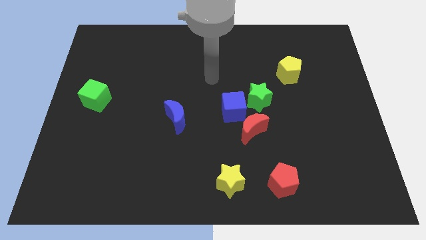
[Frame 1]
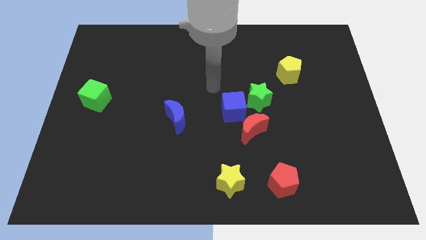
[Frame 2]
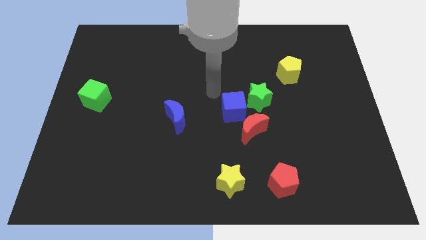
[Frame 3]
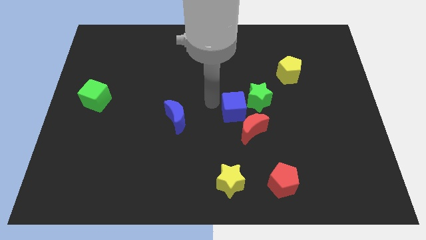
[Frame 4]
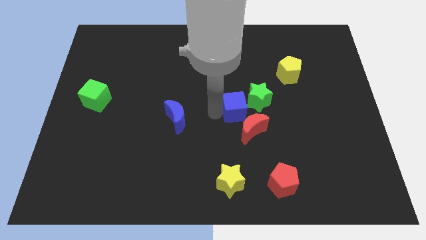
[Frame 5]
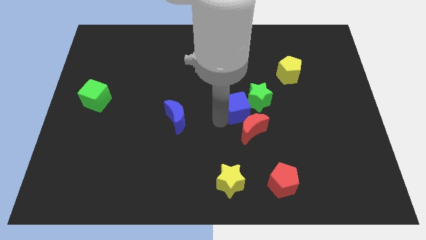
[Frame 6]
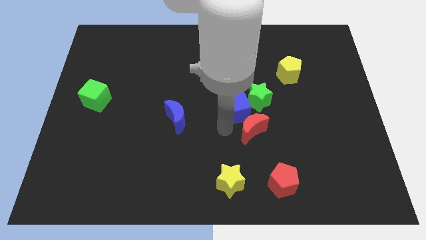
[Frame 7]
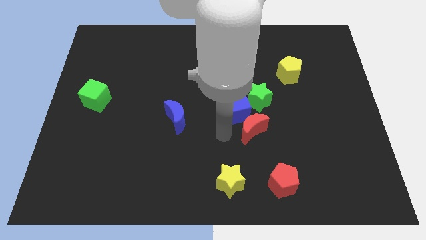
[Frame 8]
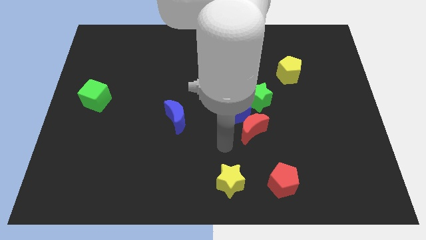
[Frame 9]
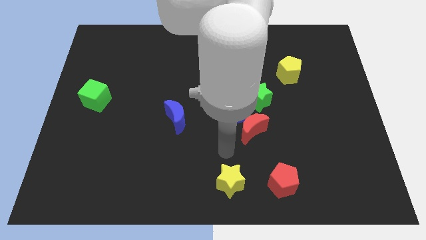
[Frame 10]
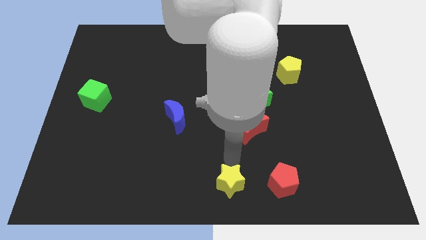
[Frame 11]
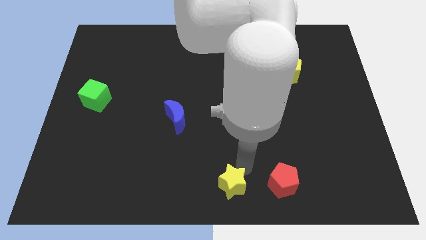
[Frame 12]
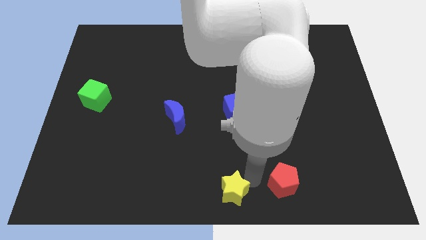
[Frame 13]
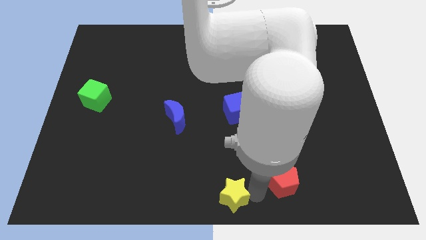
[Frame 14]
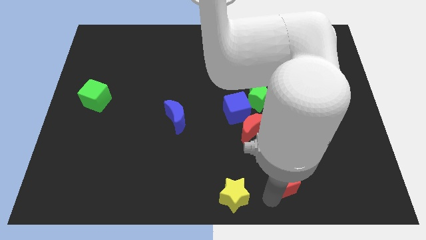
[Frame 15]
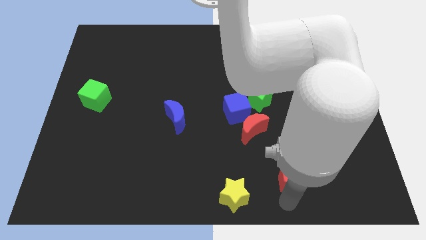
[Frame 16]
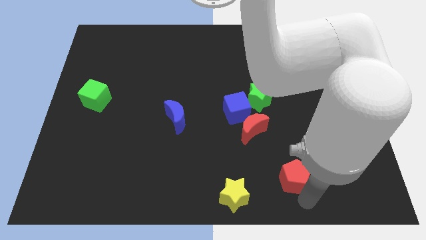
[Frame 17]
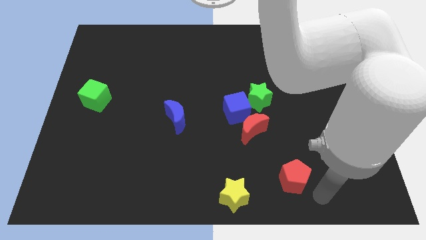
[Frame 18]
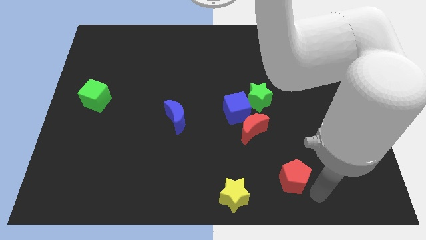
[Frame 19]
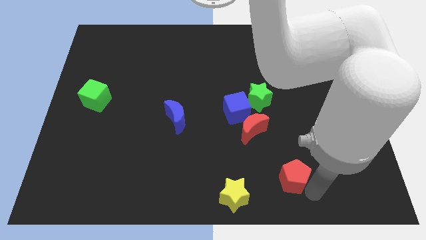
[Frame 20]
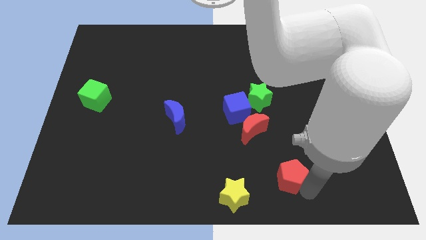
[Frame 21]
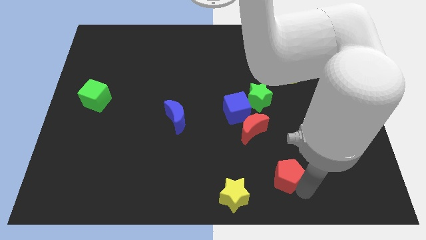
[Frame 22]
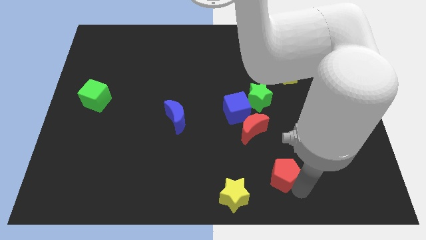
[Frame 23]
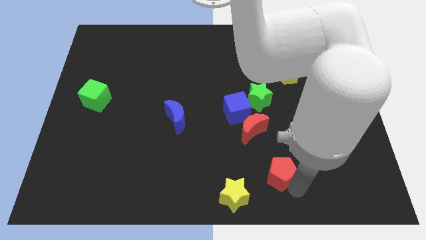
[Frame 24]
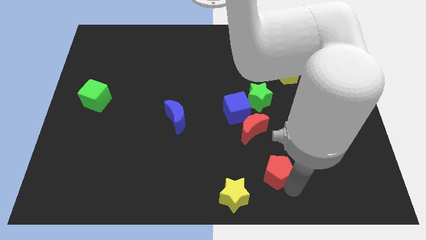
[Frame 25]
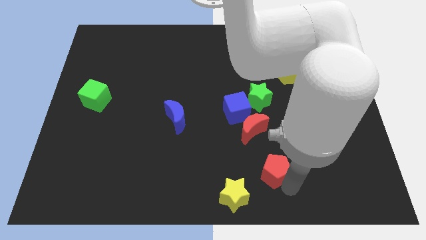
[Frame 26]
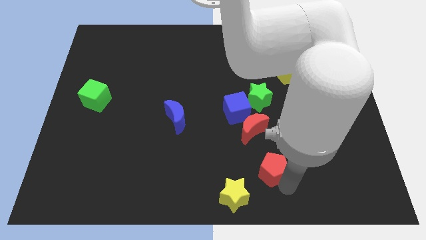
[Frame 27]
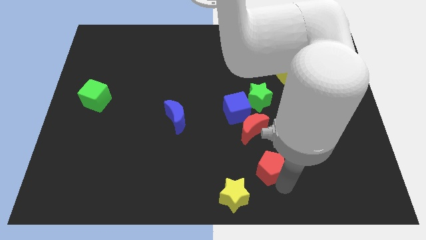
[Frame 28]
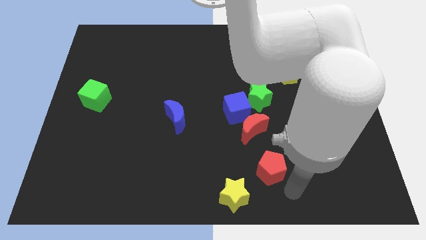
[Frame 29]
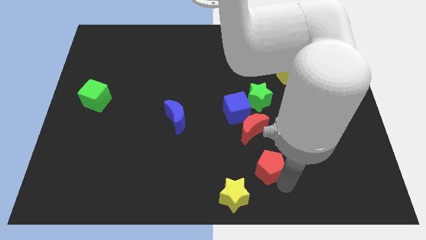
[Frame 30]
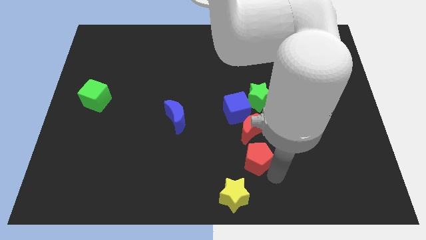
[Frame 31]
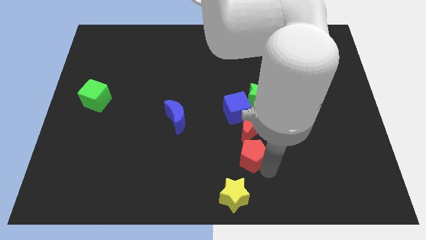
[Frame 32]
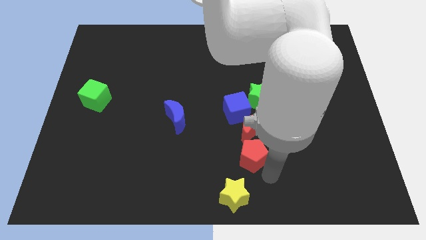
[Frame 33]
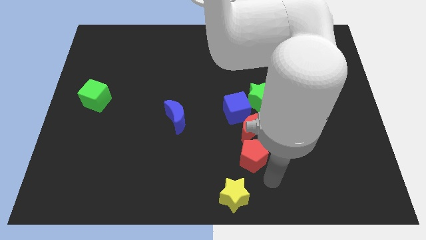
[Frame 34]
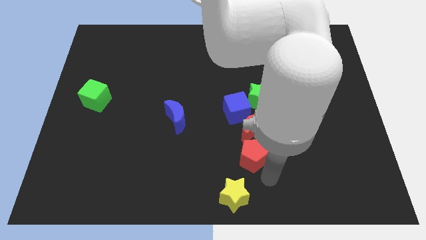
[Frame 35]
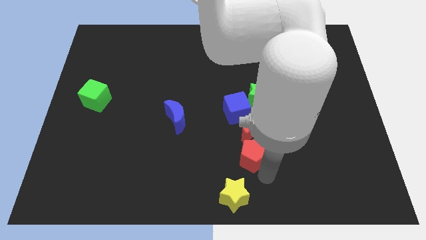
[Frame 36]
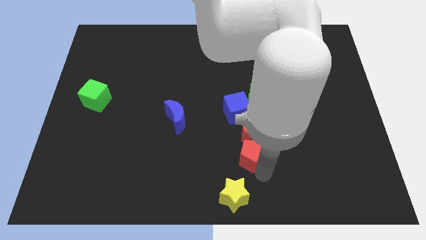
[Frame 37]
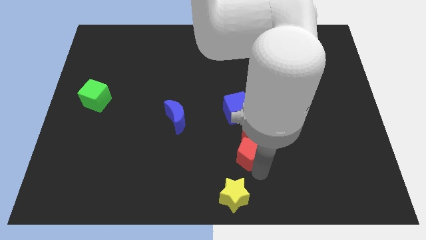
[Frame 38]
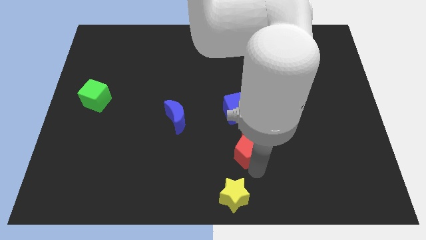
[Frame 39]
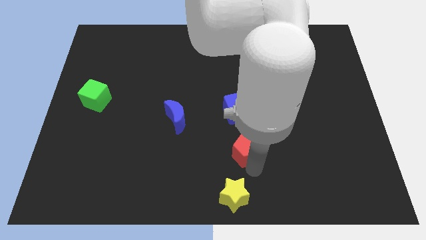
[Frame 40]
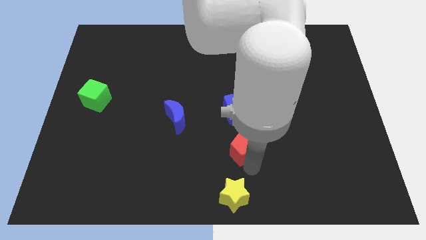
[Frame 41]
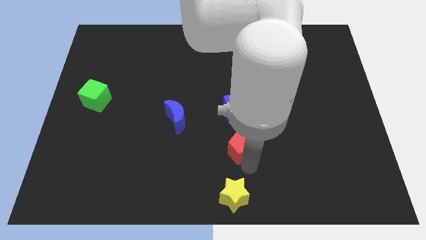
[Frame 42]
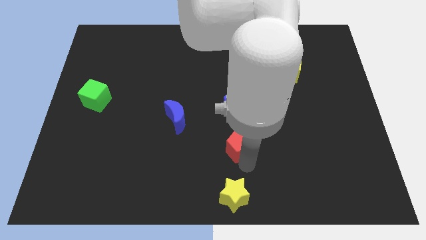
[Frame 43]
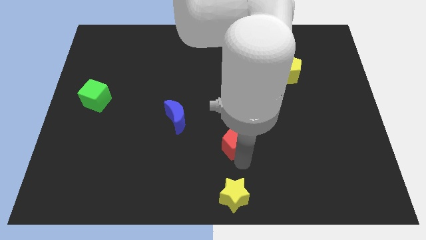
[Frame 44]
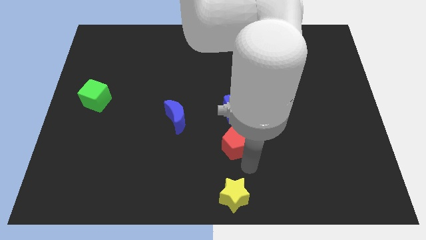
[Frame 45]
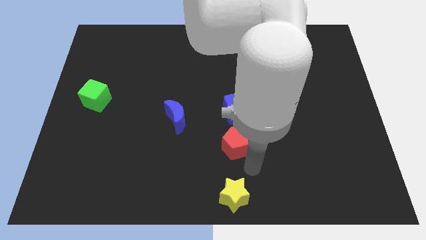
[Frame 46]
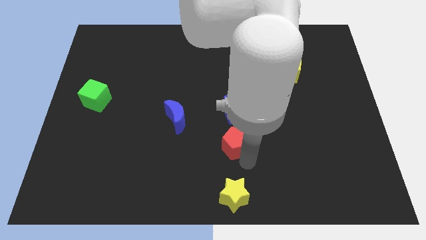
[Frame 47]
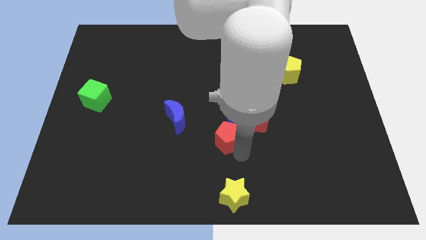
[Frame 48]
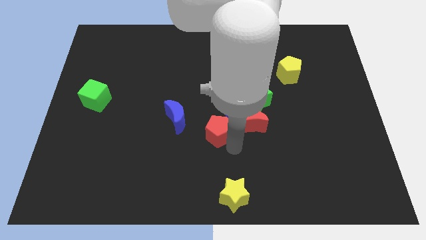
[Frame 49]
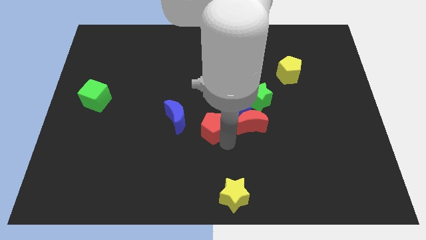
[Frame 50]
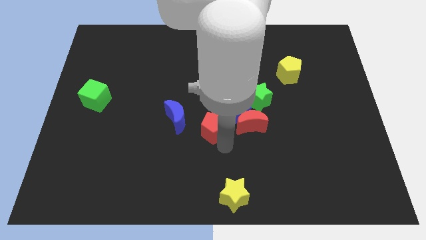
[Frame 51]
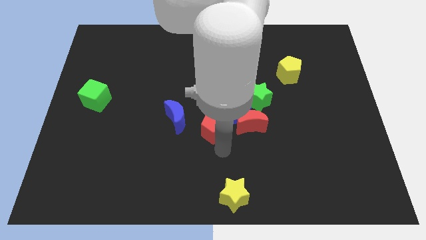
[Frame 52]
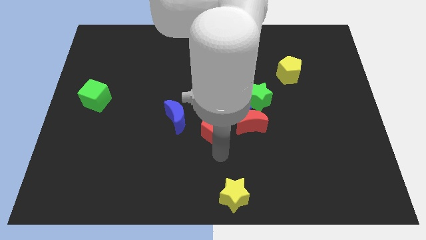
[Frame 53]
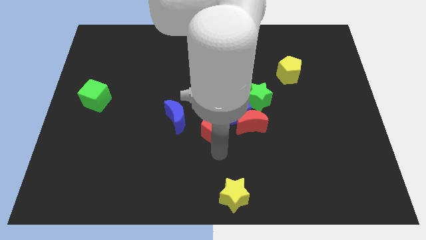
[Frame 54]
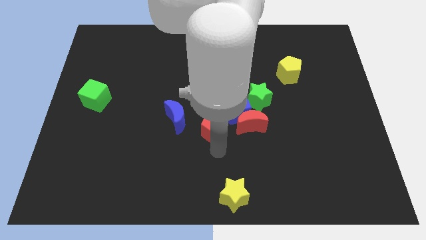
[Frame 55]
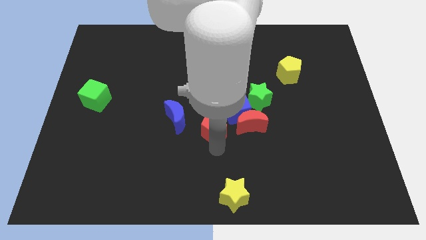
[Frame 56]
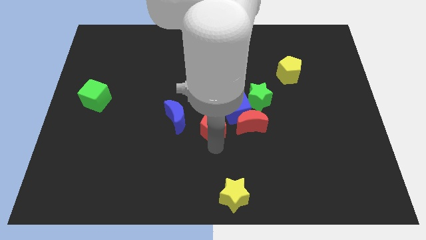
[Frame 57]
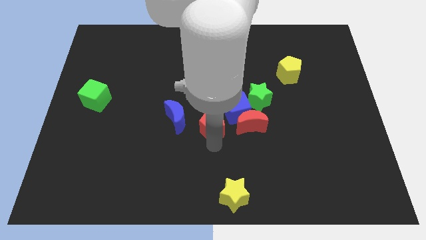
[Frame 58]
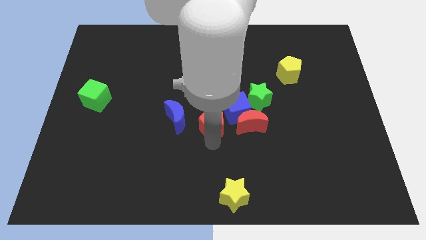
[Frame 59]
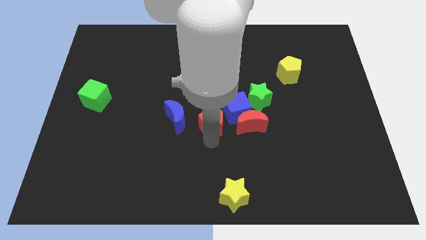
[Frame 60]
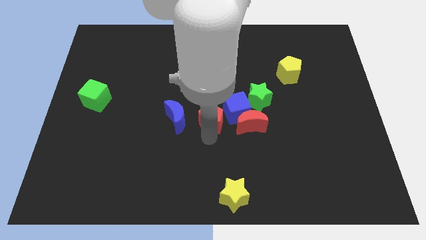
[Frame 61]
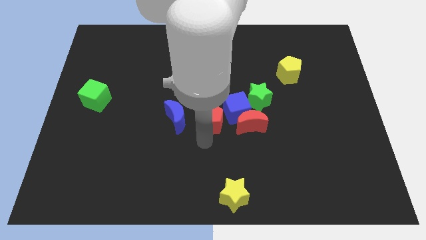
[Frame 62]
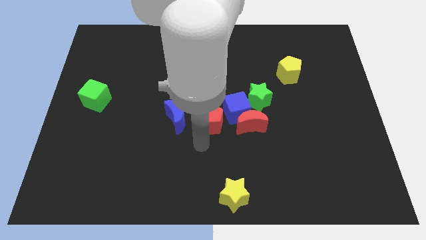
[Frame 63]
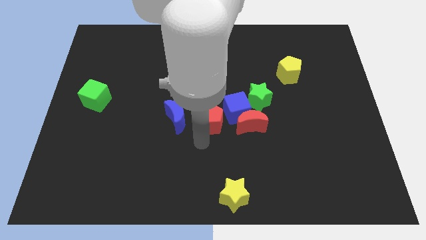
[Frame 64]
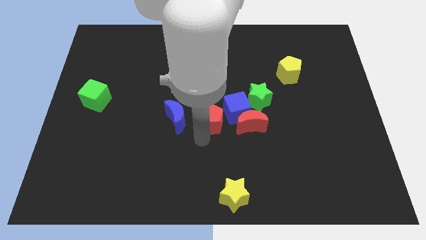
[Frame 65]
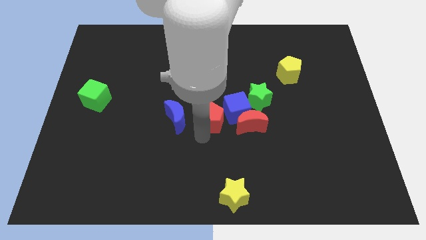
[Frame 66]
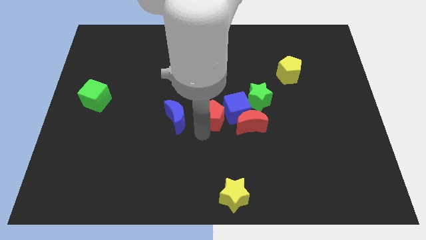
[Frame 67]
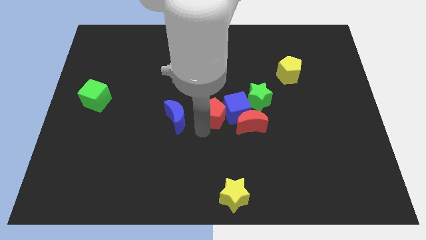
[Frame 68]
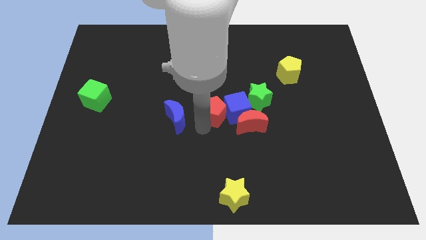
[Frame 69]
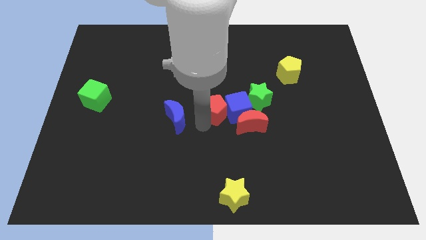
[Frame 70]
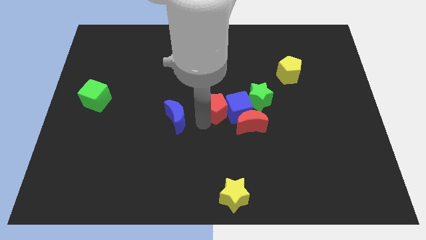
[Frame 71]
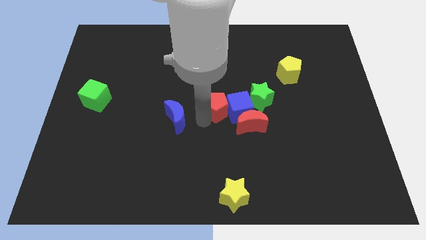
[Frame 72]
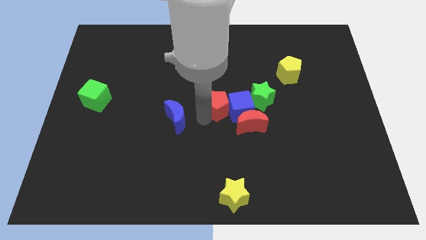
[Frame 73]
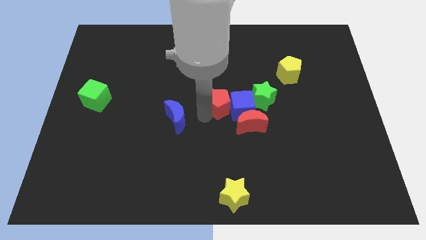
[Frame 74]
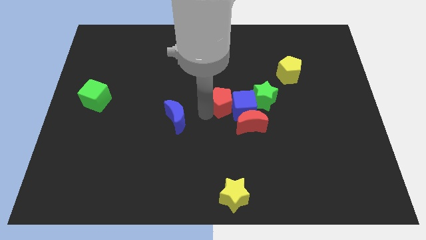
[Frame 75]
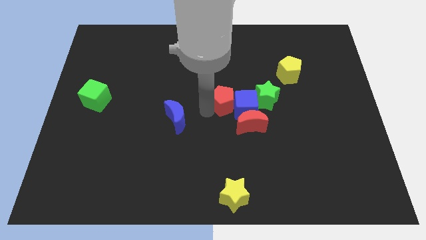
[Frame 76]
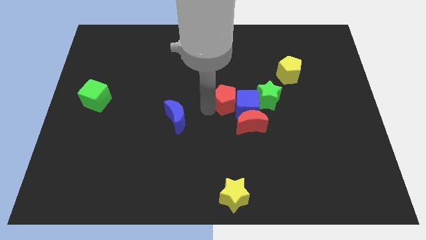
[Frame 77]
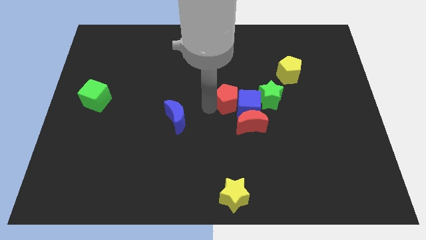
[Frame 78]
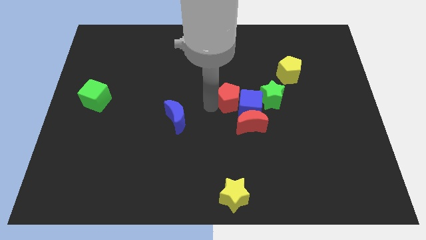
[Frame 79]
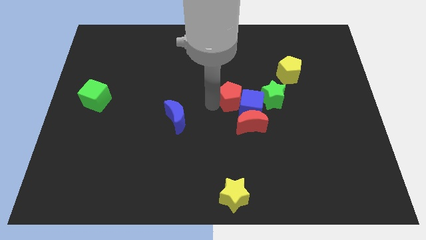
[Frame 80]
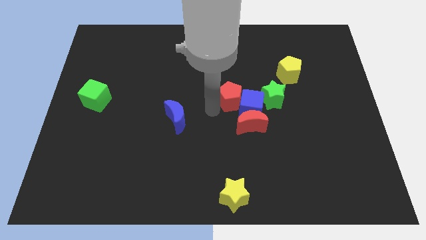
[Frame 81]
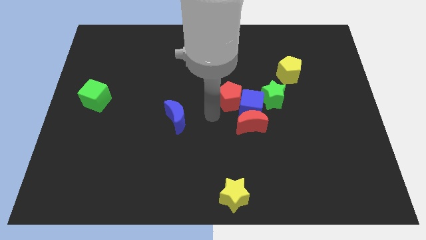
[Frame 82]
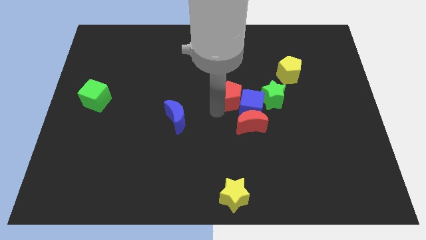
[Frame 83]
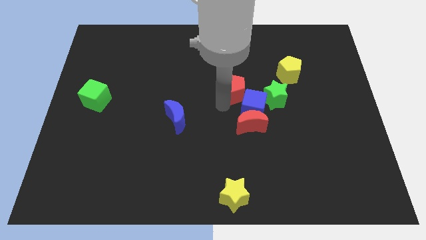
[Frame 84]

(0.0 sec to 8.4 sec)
slide the red pentagon upwards
